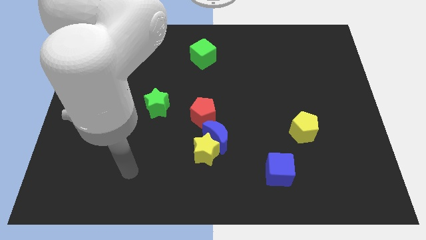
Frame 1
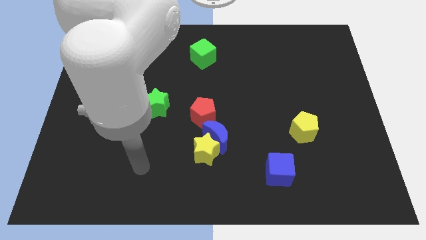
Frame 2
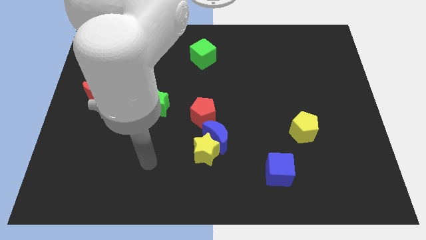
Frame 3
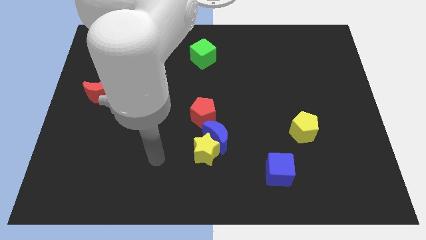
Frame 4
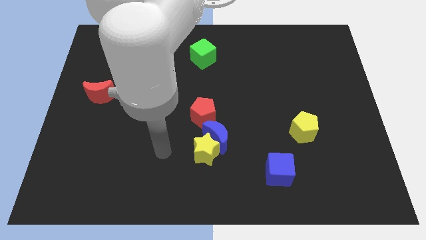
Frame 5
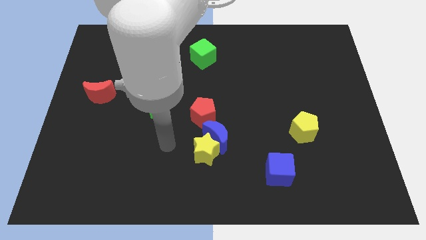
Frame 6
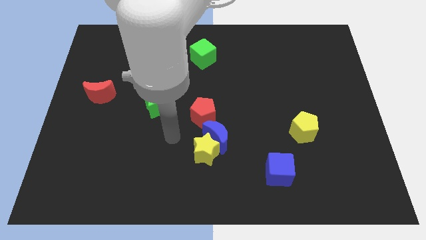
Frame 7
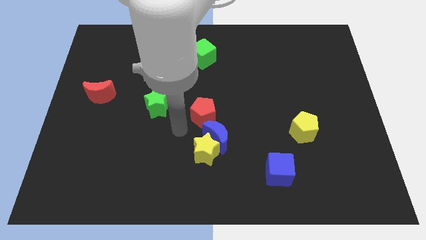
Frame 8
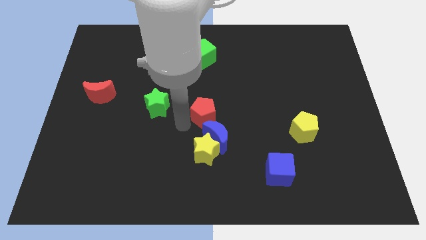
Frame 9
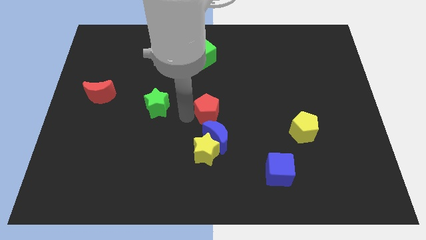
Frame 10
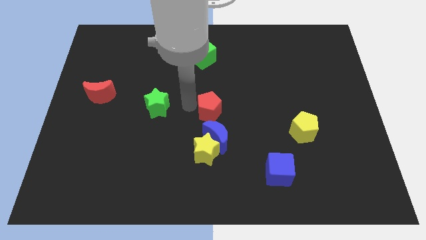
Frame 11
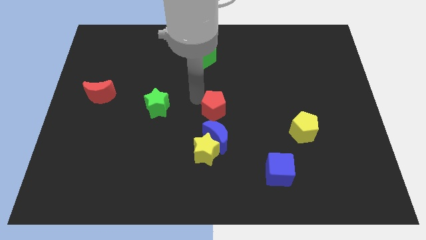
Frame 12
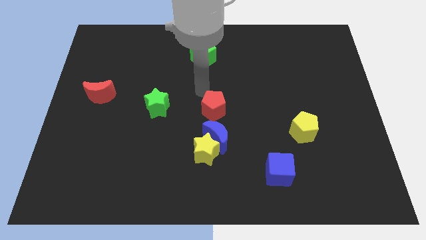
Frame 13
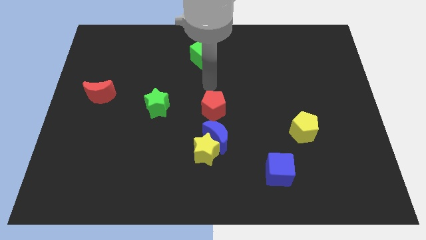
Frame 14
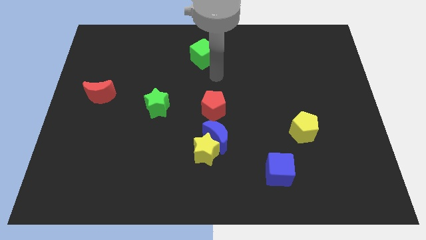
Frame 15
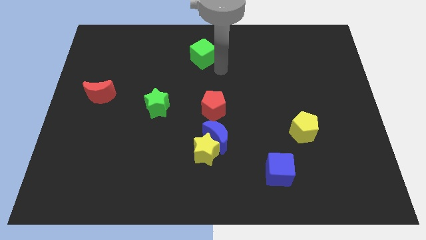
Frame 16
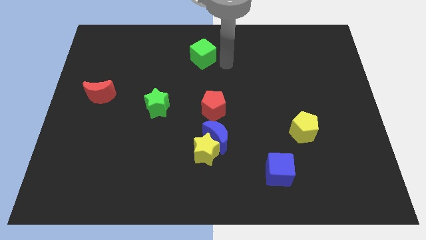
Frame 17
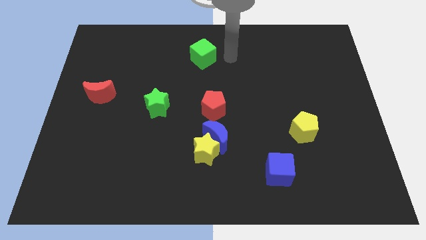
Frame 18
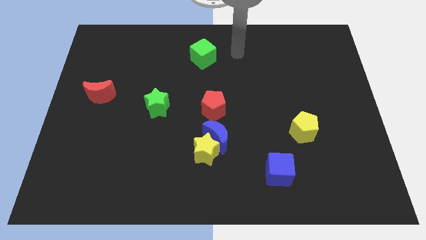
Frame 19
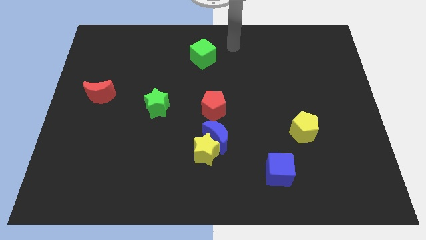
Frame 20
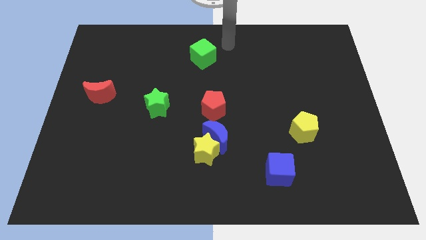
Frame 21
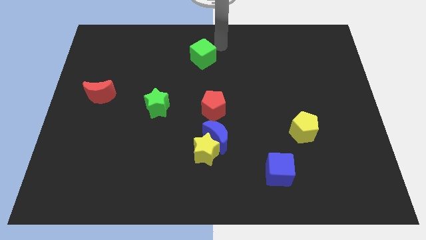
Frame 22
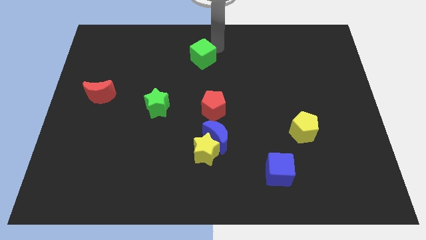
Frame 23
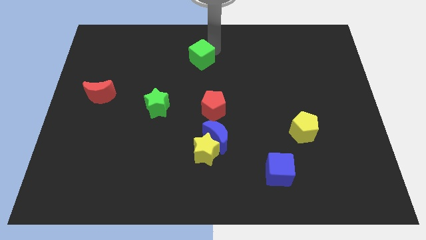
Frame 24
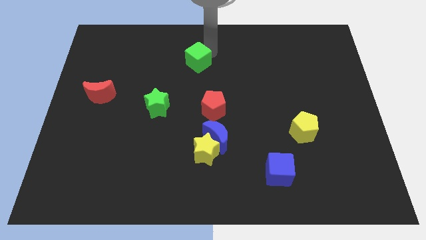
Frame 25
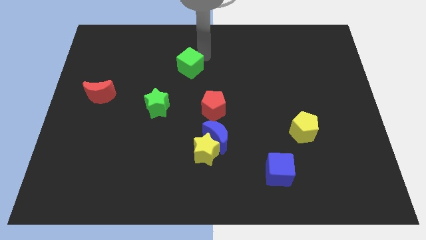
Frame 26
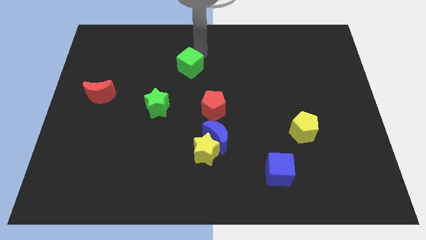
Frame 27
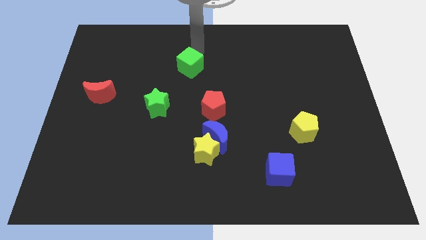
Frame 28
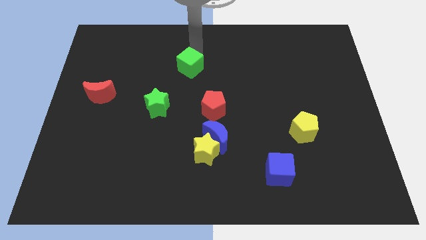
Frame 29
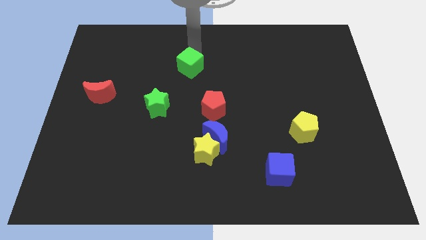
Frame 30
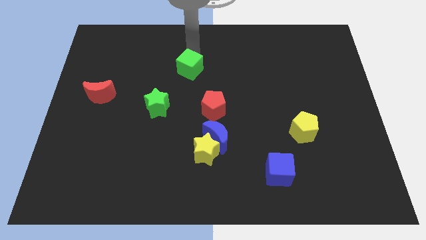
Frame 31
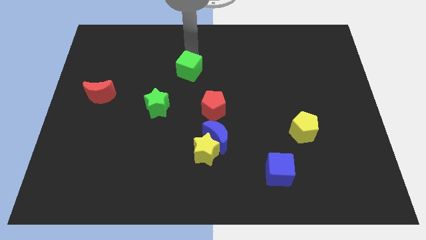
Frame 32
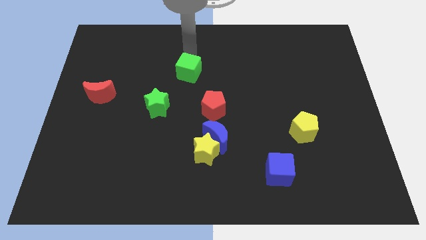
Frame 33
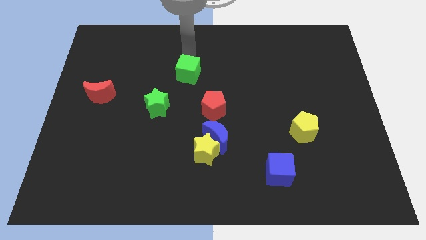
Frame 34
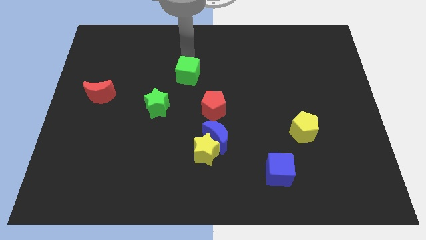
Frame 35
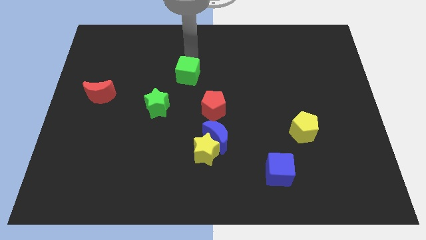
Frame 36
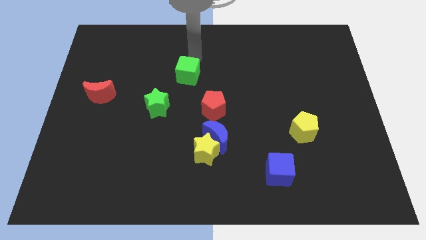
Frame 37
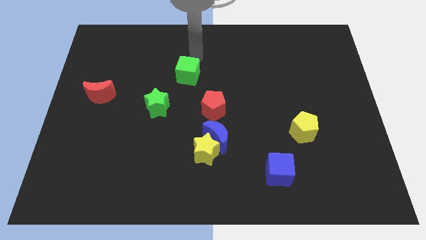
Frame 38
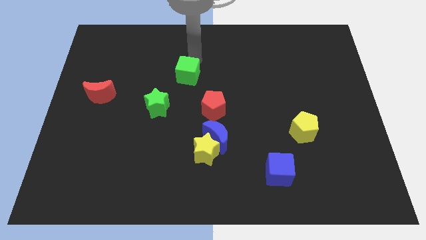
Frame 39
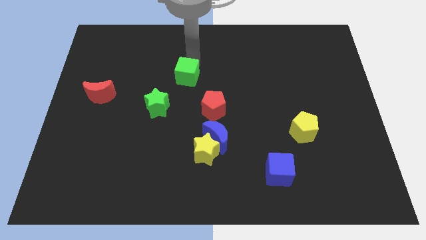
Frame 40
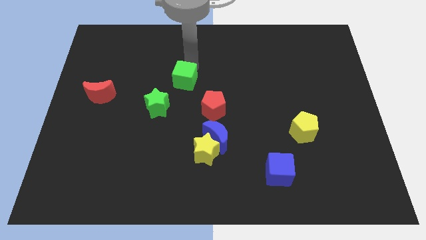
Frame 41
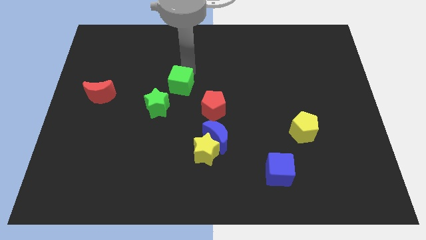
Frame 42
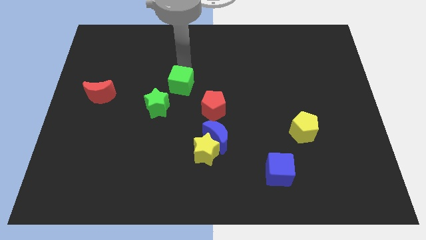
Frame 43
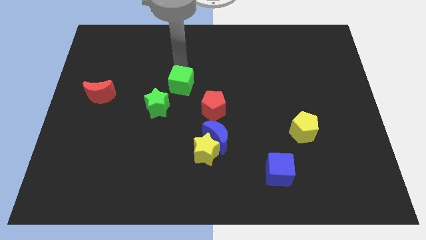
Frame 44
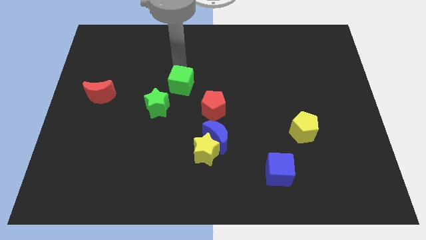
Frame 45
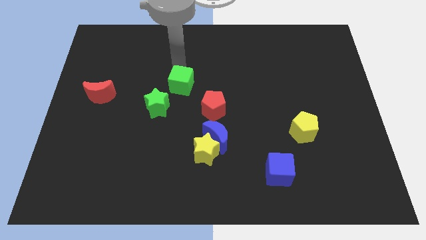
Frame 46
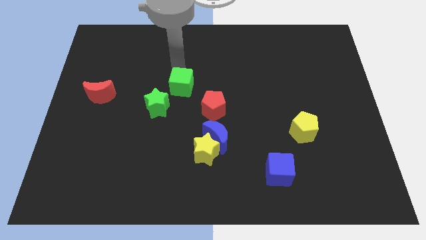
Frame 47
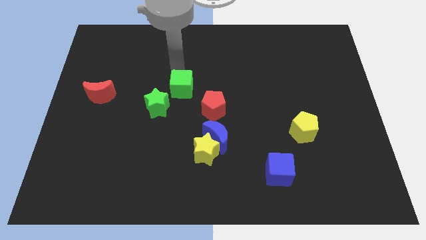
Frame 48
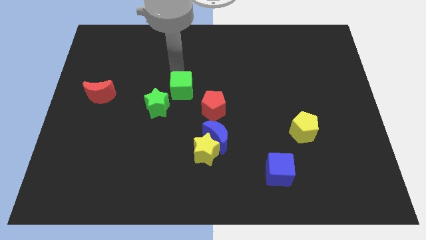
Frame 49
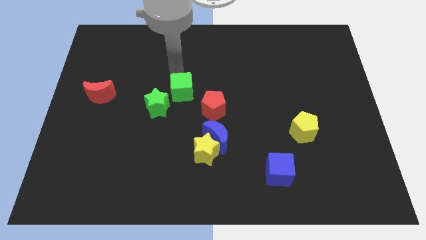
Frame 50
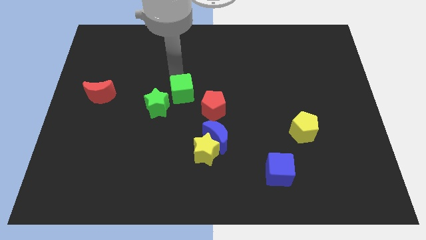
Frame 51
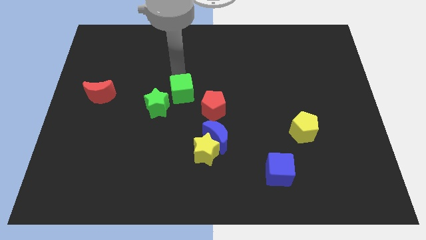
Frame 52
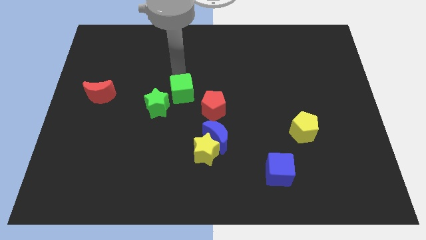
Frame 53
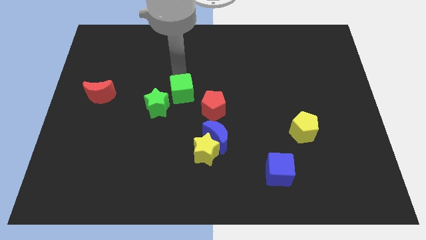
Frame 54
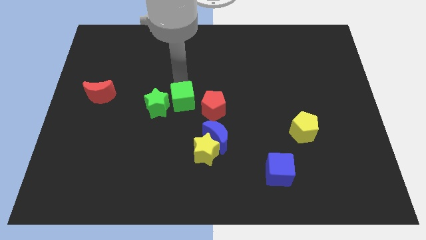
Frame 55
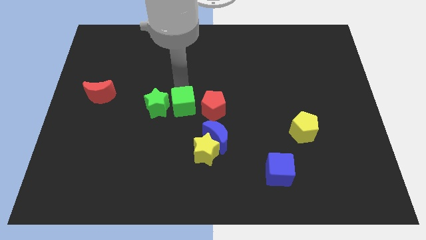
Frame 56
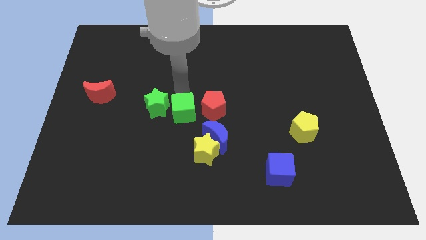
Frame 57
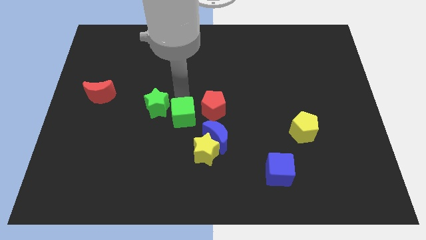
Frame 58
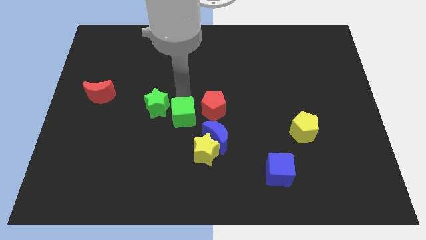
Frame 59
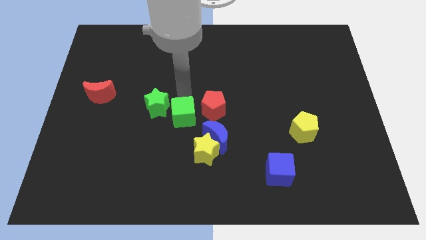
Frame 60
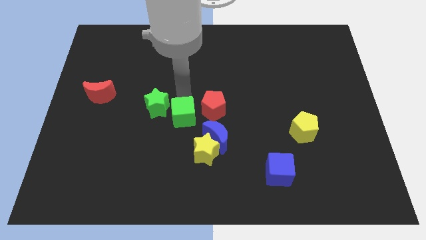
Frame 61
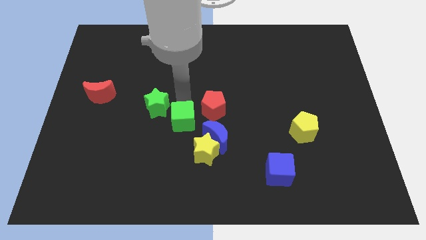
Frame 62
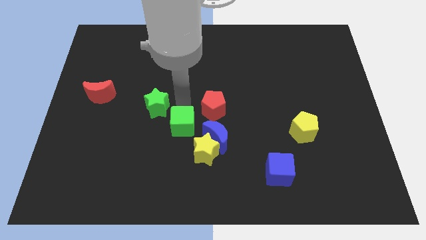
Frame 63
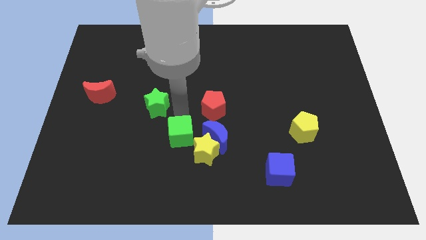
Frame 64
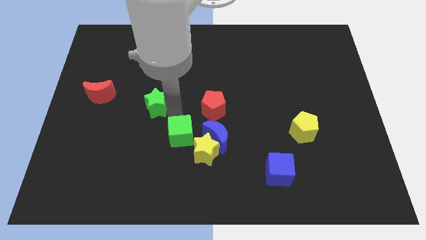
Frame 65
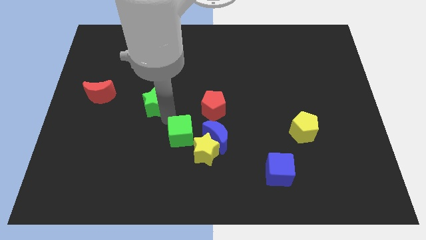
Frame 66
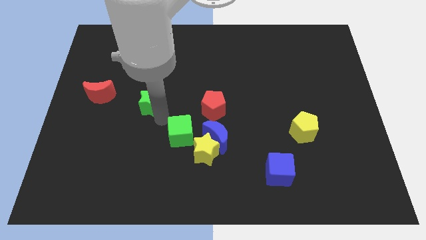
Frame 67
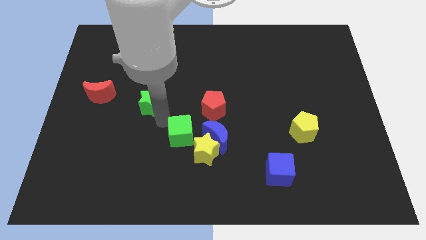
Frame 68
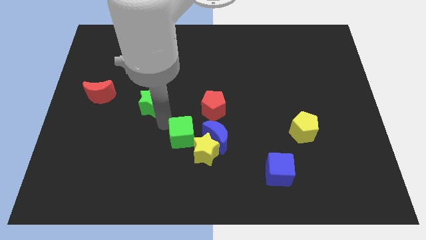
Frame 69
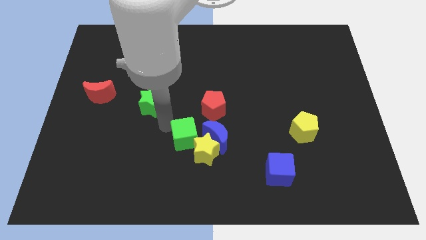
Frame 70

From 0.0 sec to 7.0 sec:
slide the green cube towards the yellow star
